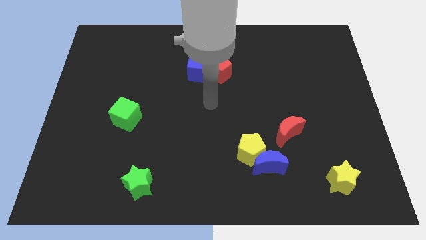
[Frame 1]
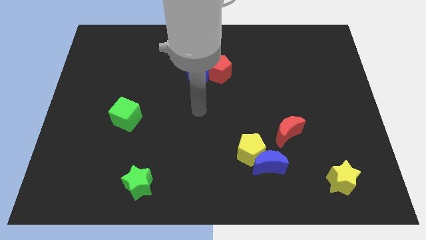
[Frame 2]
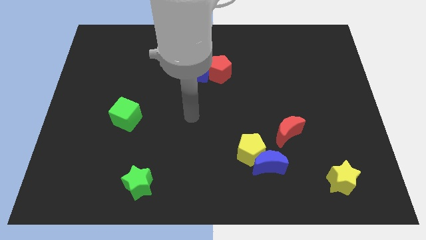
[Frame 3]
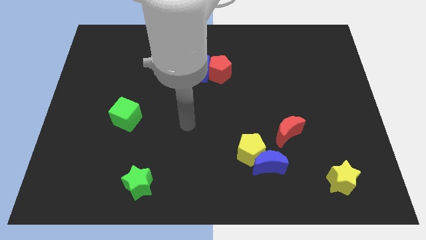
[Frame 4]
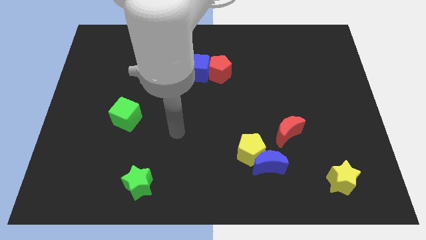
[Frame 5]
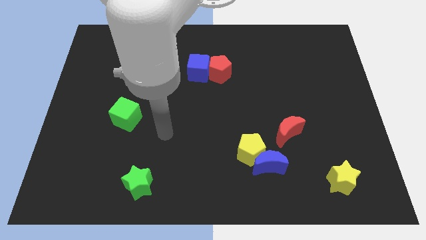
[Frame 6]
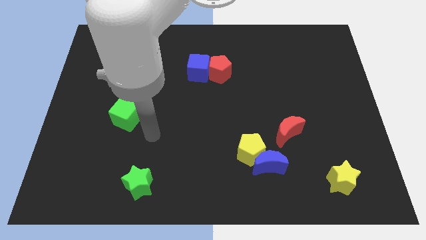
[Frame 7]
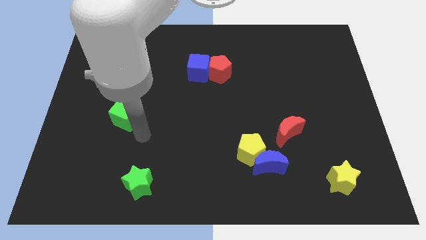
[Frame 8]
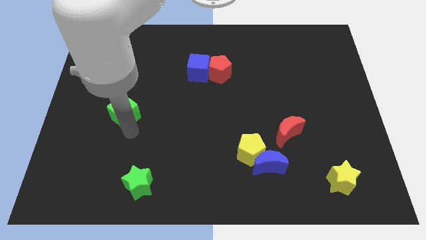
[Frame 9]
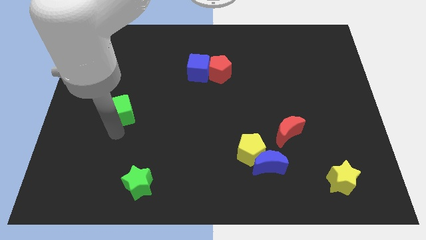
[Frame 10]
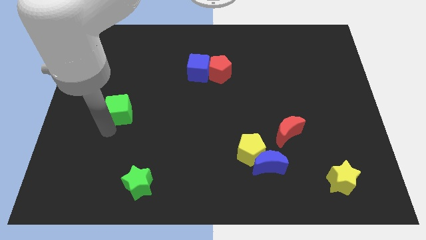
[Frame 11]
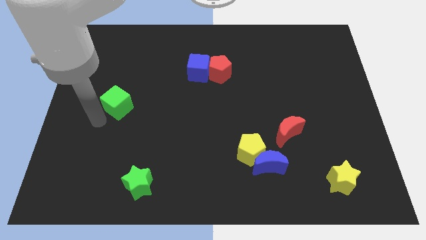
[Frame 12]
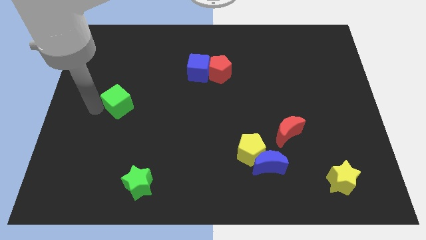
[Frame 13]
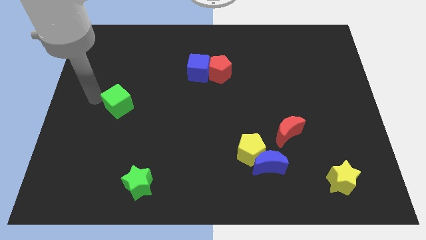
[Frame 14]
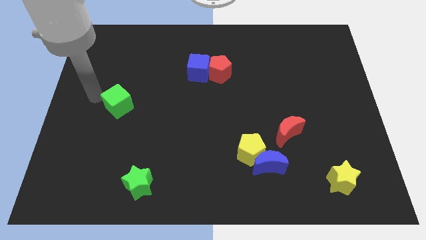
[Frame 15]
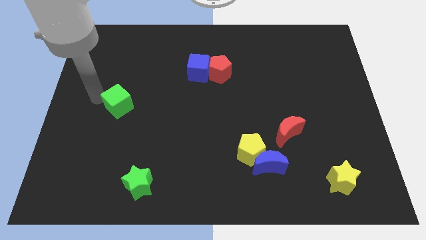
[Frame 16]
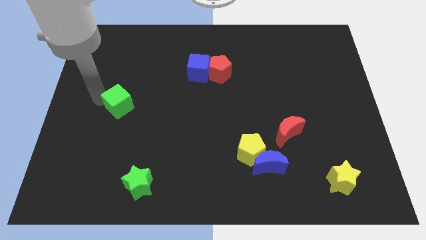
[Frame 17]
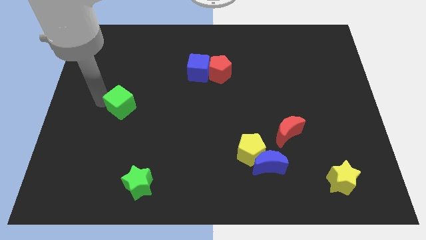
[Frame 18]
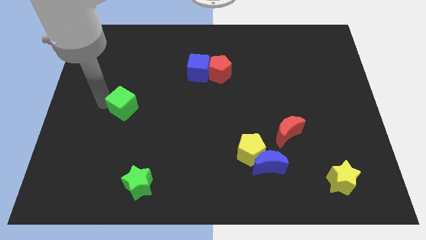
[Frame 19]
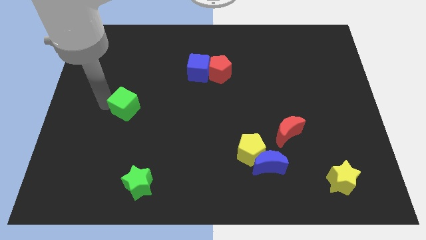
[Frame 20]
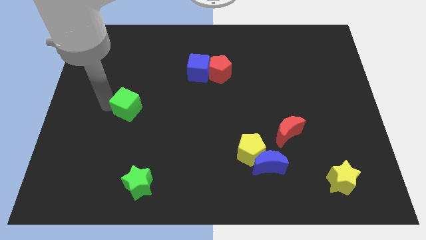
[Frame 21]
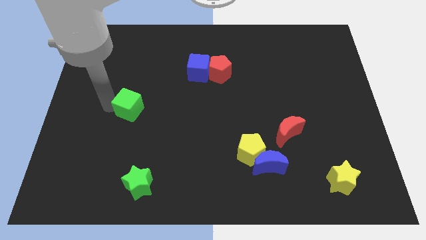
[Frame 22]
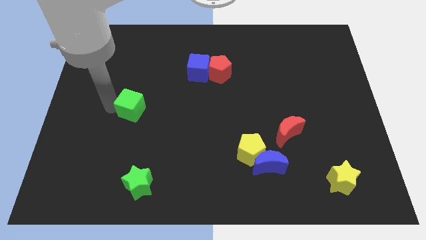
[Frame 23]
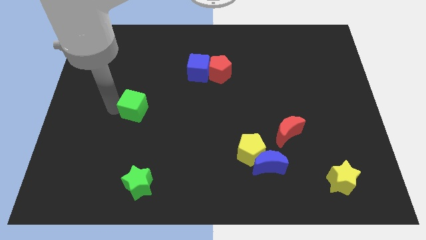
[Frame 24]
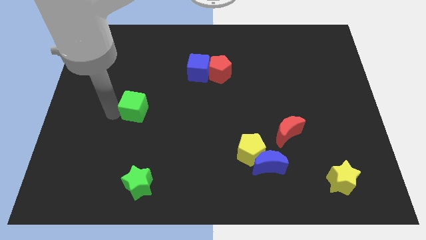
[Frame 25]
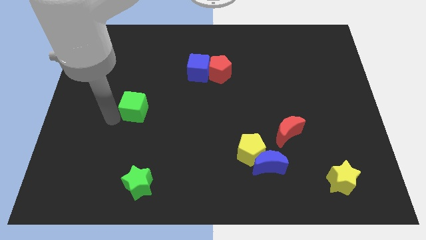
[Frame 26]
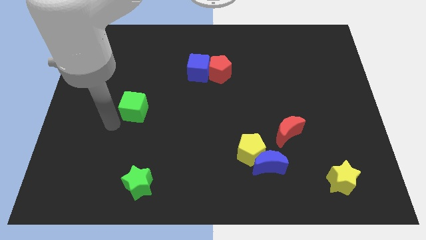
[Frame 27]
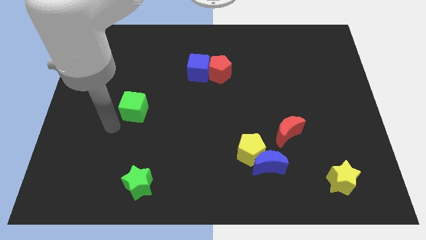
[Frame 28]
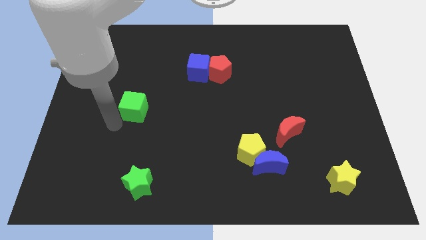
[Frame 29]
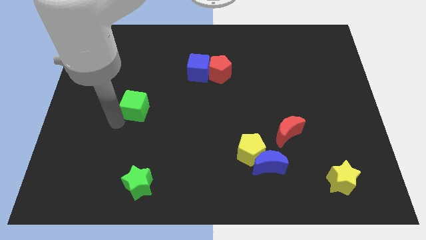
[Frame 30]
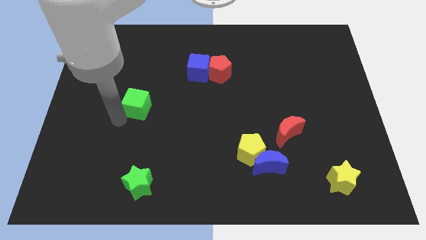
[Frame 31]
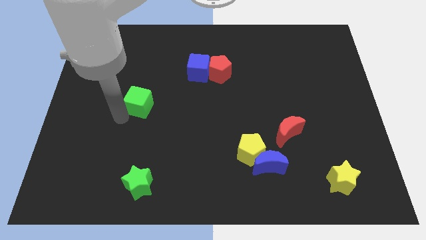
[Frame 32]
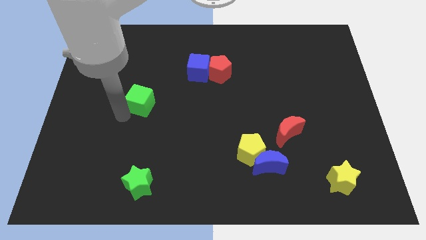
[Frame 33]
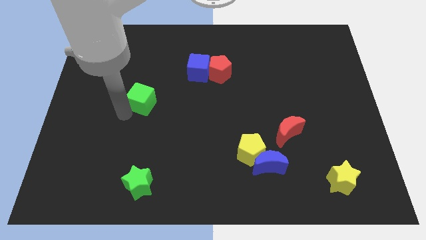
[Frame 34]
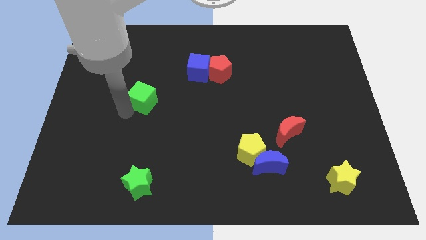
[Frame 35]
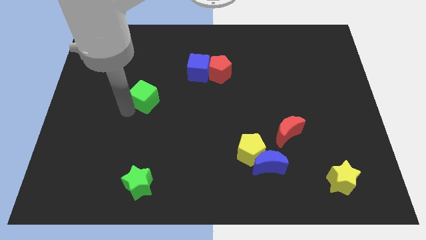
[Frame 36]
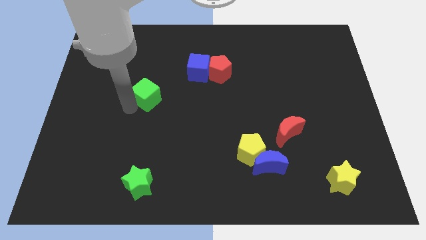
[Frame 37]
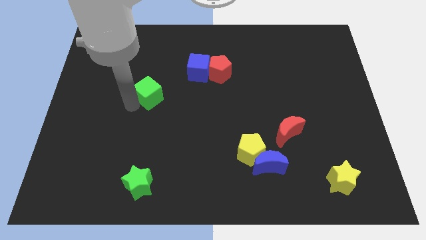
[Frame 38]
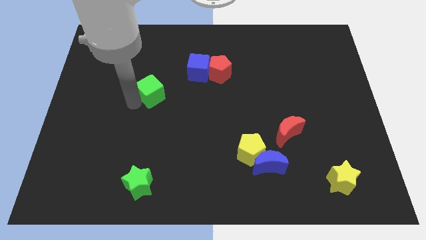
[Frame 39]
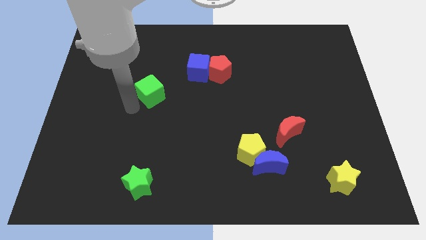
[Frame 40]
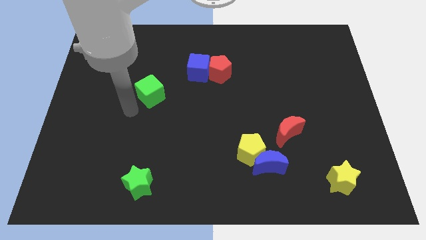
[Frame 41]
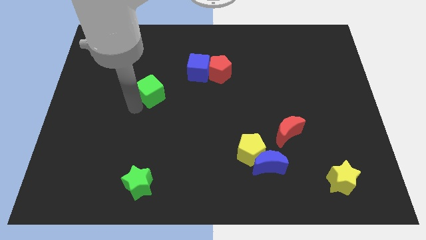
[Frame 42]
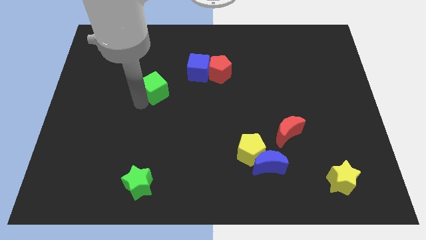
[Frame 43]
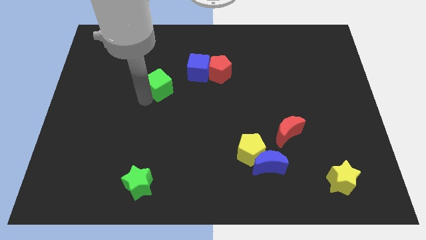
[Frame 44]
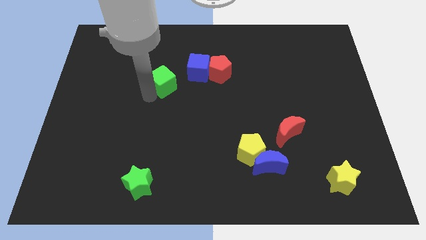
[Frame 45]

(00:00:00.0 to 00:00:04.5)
move the green cube to the left of the red pentagon

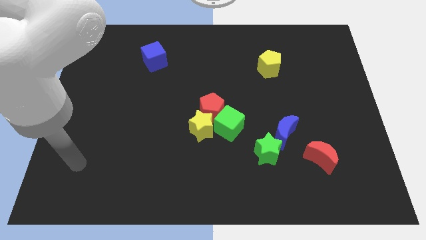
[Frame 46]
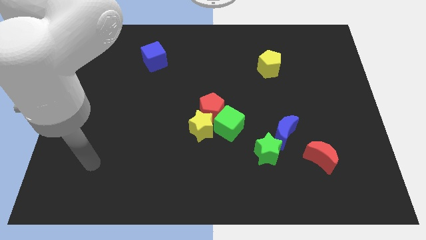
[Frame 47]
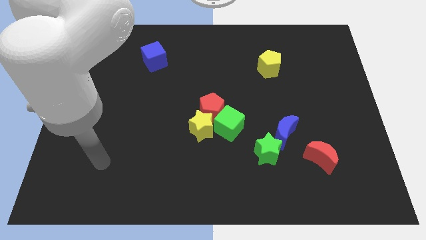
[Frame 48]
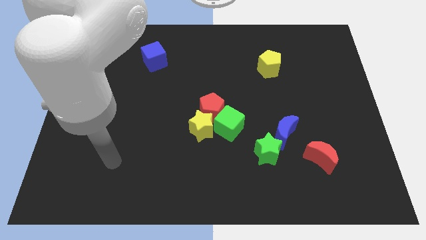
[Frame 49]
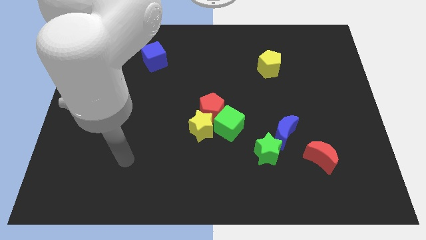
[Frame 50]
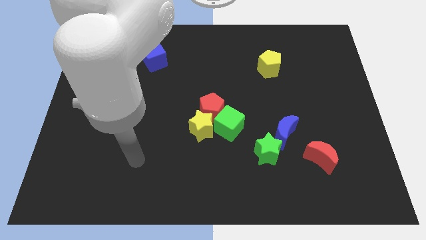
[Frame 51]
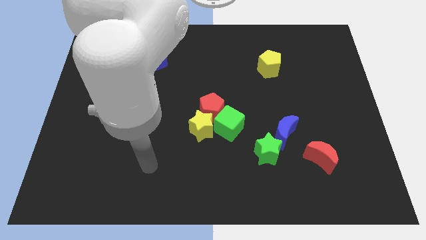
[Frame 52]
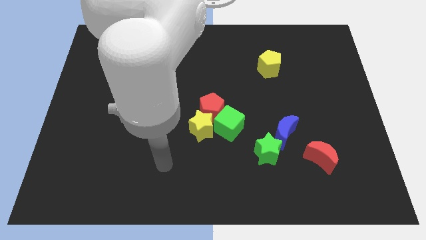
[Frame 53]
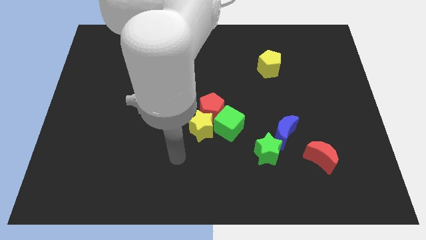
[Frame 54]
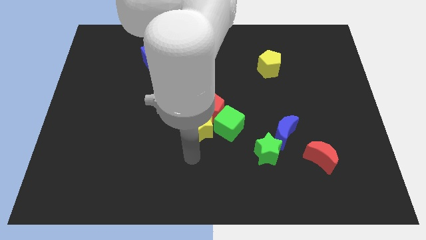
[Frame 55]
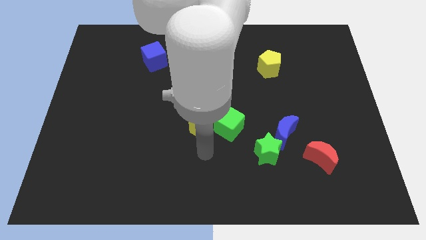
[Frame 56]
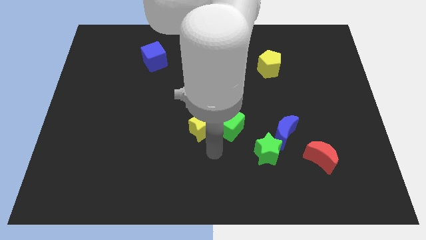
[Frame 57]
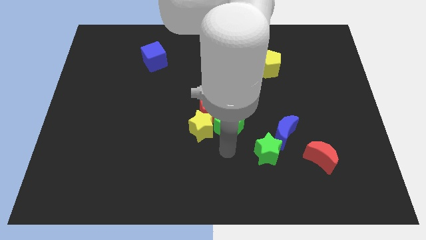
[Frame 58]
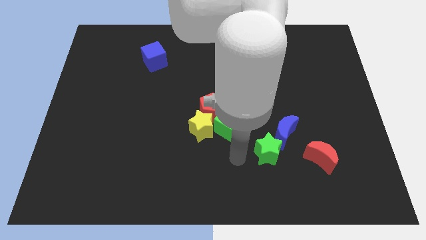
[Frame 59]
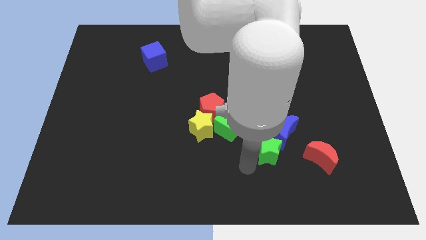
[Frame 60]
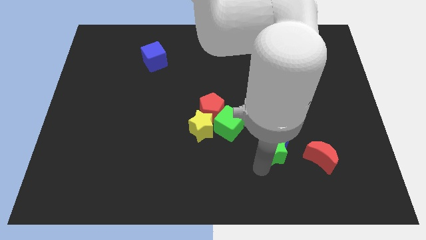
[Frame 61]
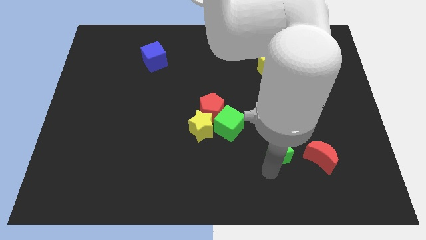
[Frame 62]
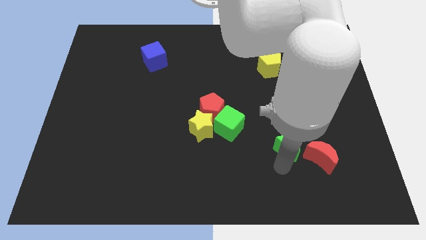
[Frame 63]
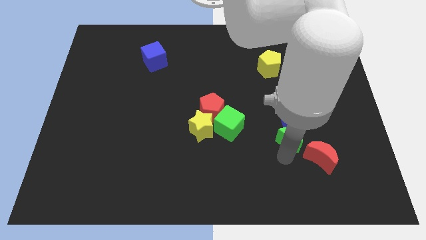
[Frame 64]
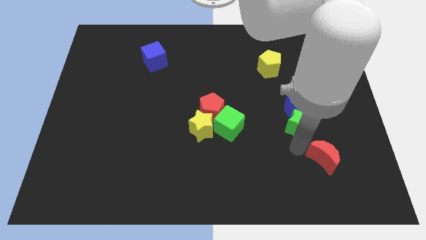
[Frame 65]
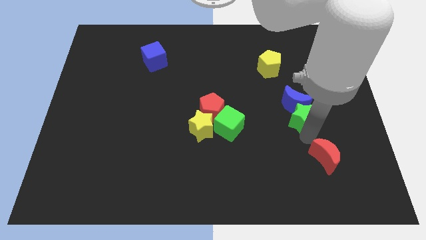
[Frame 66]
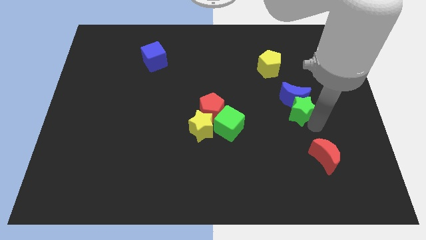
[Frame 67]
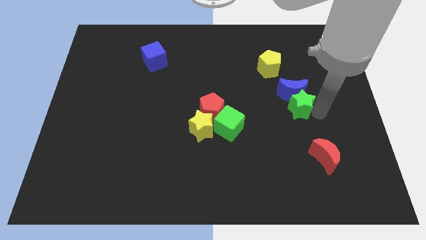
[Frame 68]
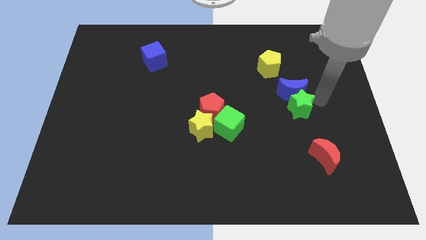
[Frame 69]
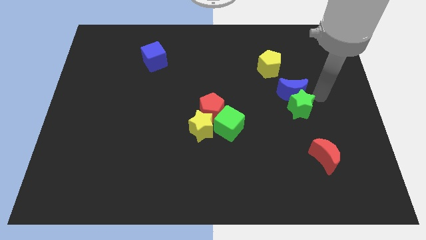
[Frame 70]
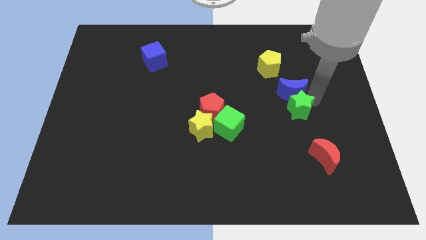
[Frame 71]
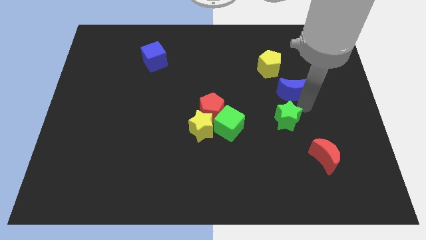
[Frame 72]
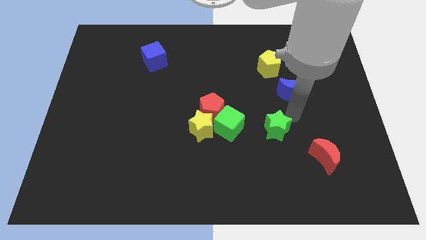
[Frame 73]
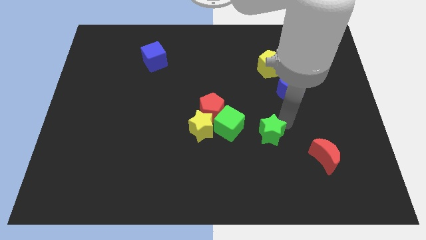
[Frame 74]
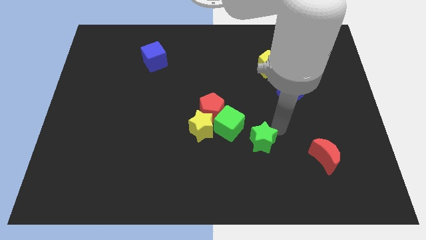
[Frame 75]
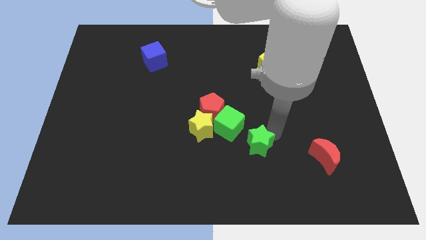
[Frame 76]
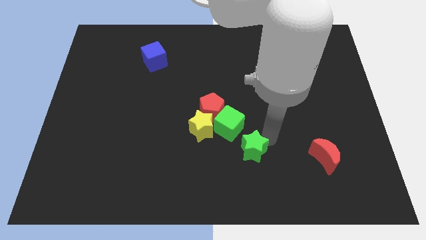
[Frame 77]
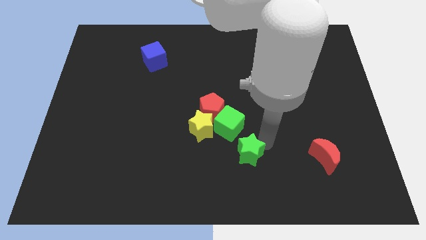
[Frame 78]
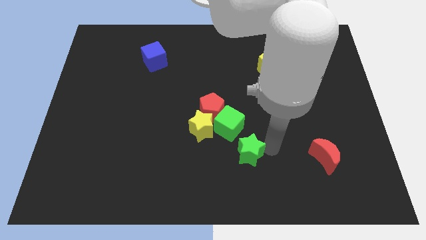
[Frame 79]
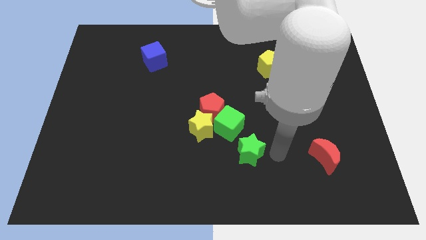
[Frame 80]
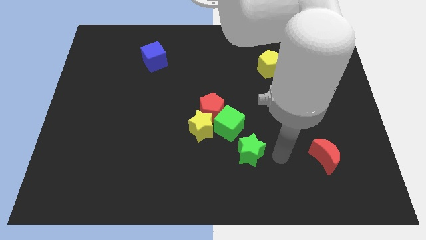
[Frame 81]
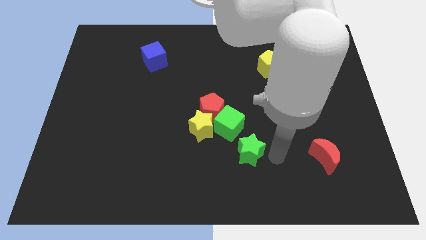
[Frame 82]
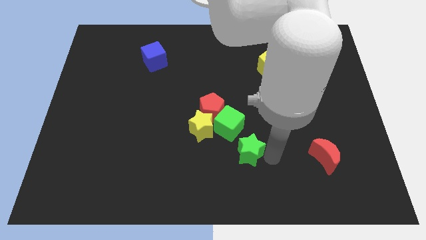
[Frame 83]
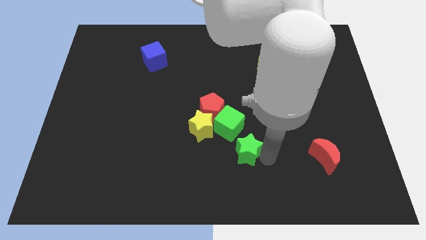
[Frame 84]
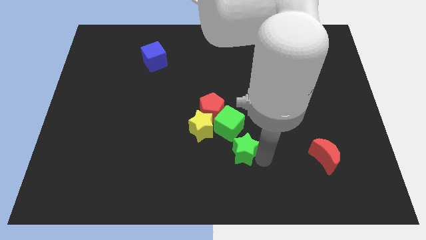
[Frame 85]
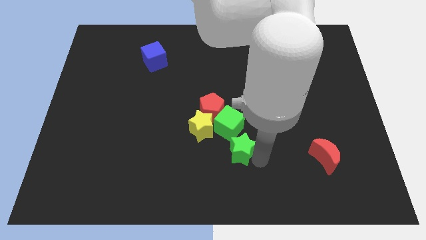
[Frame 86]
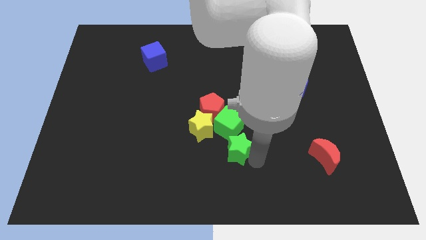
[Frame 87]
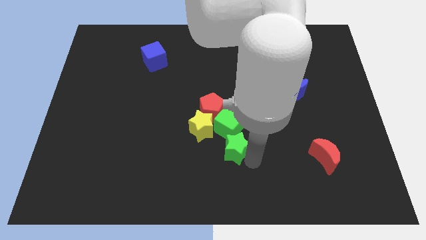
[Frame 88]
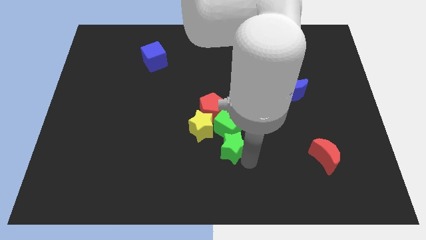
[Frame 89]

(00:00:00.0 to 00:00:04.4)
put the green star to the bottom of the red pentagon
